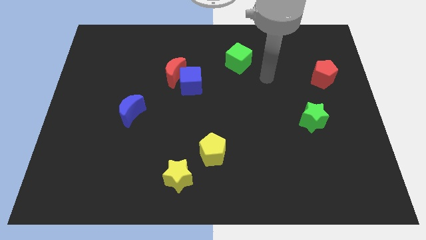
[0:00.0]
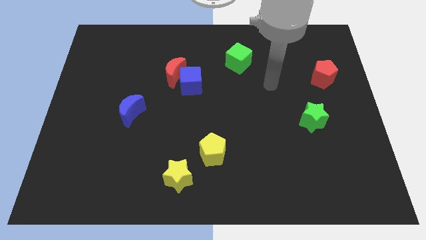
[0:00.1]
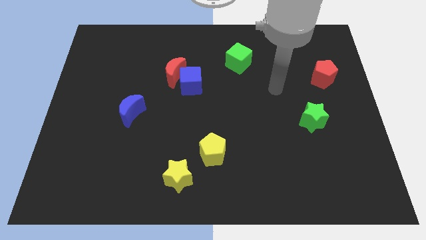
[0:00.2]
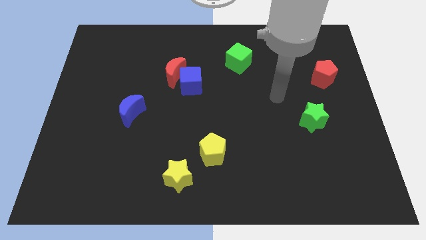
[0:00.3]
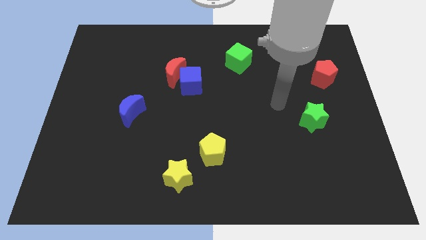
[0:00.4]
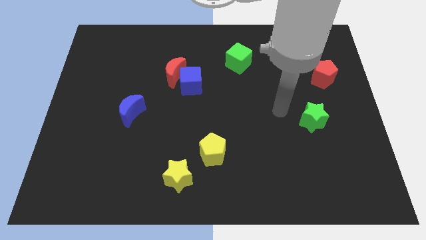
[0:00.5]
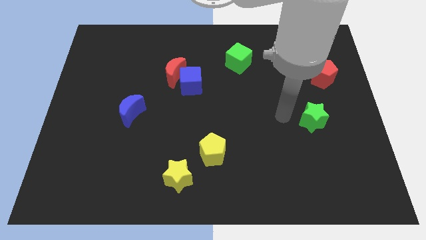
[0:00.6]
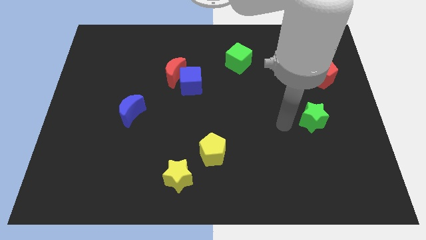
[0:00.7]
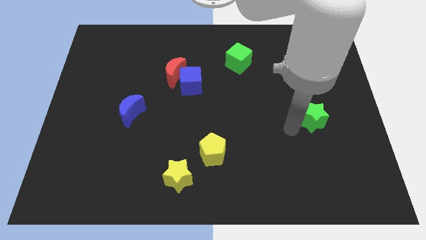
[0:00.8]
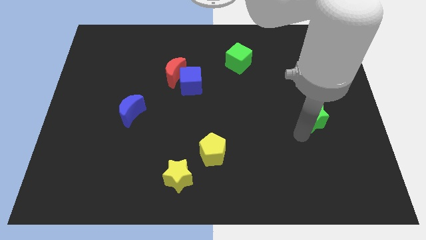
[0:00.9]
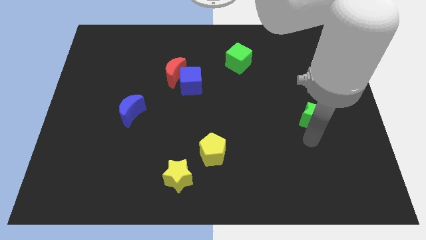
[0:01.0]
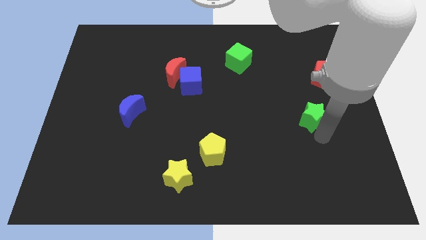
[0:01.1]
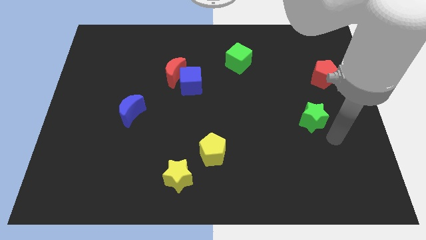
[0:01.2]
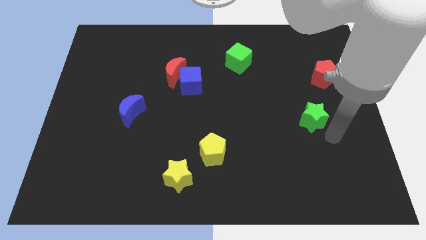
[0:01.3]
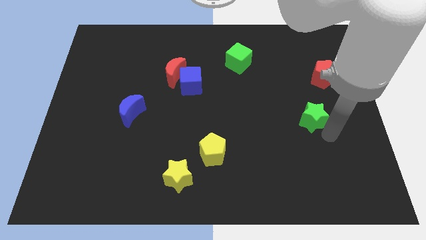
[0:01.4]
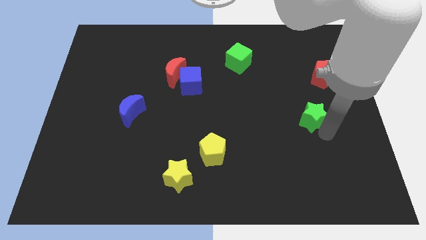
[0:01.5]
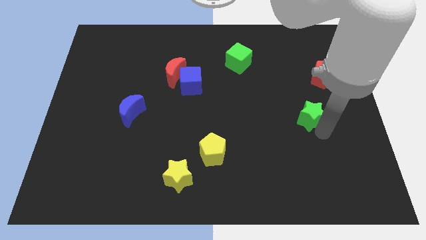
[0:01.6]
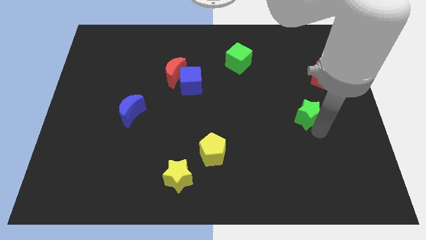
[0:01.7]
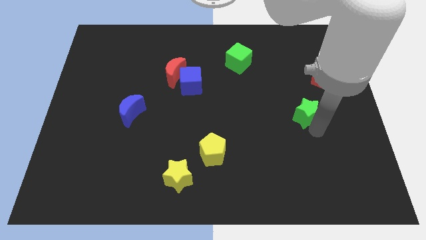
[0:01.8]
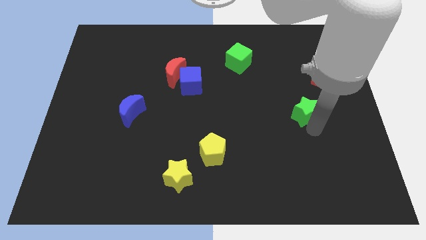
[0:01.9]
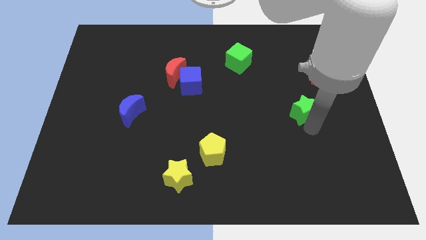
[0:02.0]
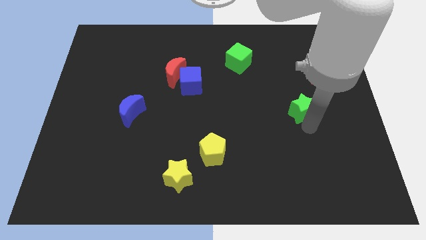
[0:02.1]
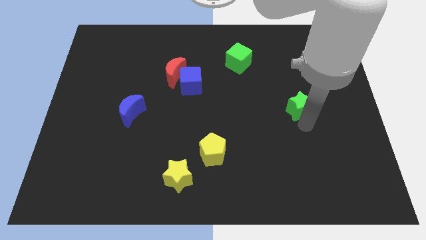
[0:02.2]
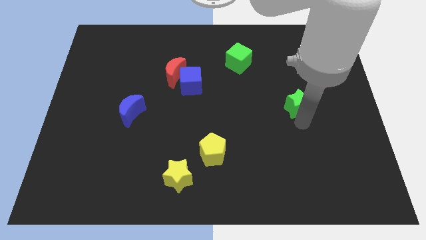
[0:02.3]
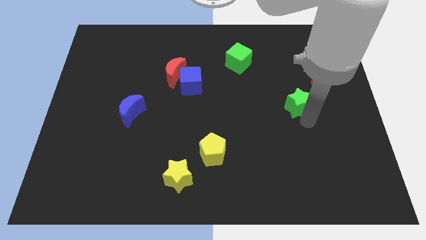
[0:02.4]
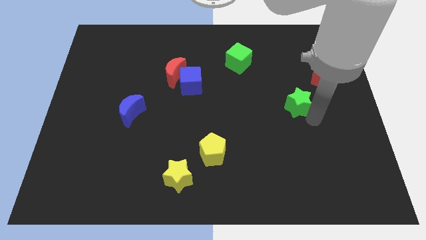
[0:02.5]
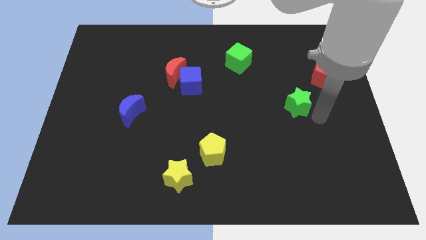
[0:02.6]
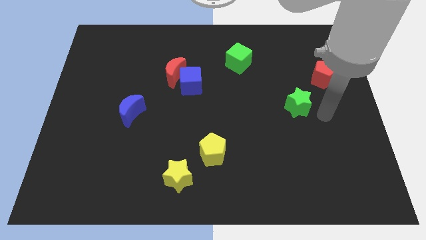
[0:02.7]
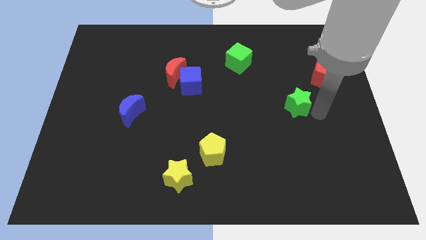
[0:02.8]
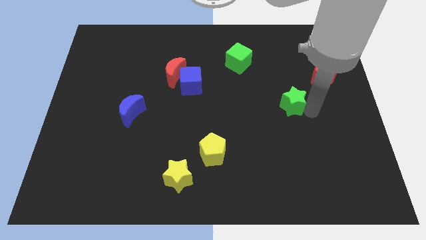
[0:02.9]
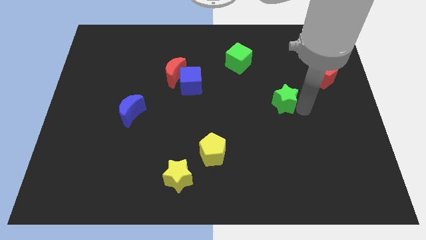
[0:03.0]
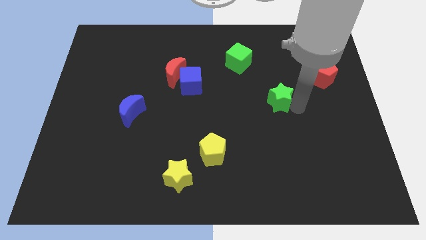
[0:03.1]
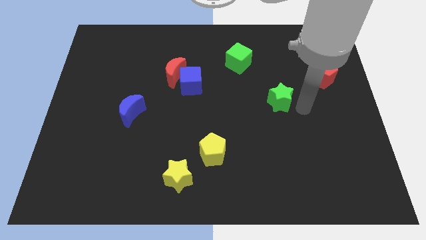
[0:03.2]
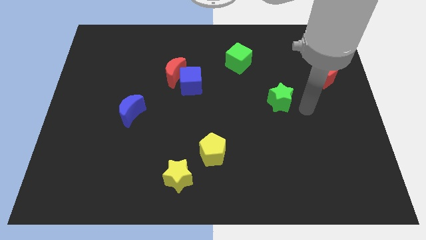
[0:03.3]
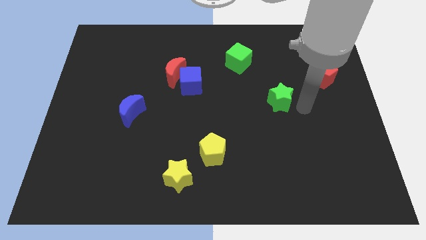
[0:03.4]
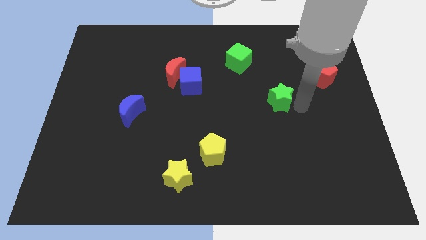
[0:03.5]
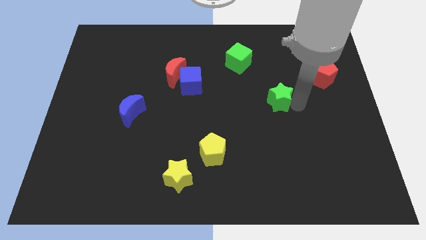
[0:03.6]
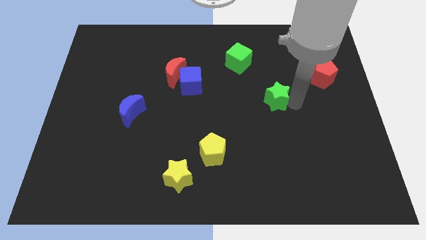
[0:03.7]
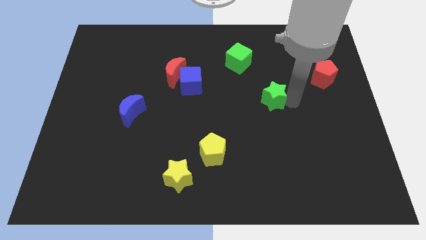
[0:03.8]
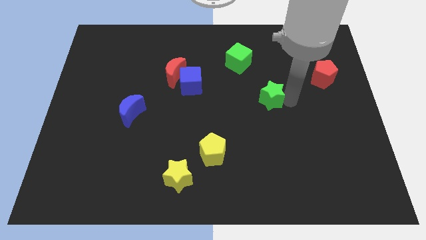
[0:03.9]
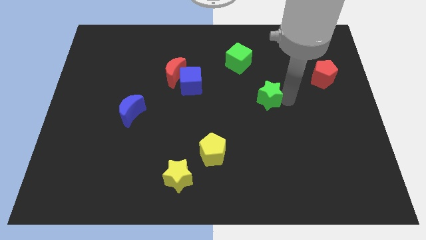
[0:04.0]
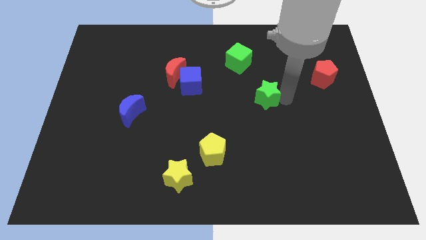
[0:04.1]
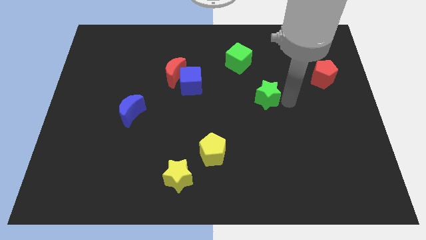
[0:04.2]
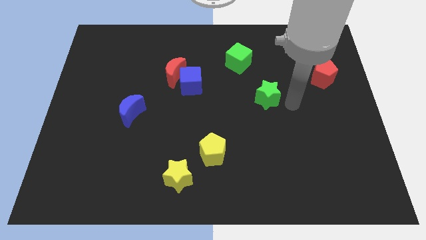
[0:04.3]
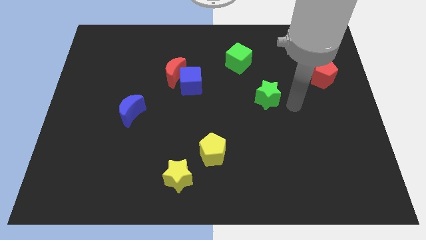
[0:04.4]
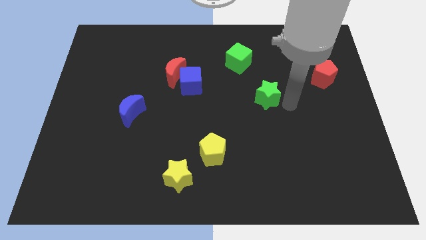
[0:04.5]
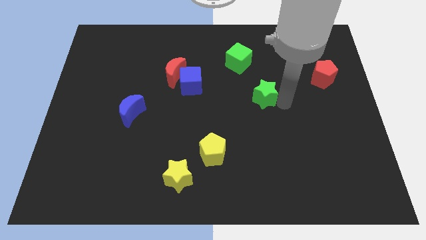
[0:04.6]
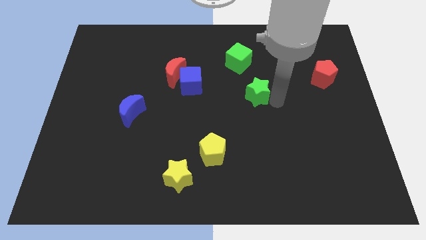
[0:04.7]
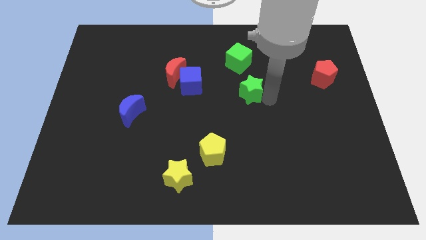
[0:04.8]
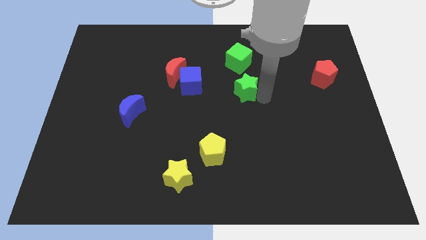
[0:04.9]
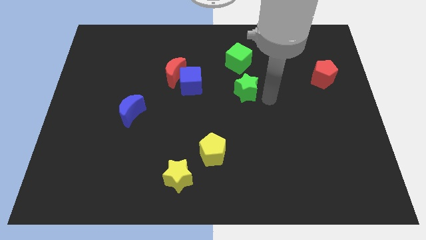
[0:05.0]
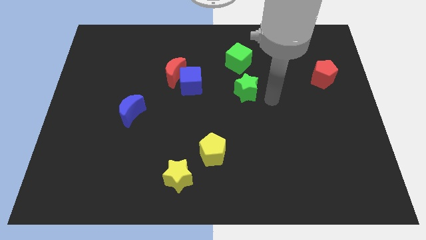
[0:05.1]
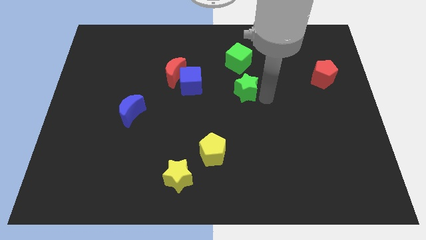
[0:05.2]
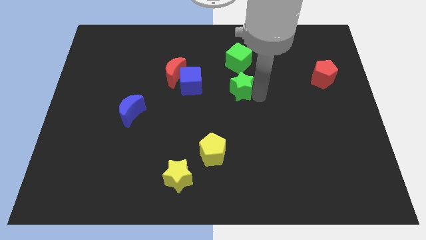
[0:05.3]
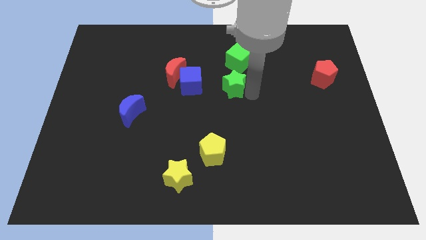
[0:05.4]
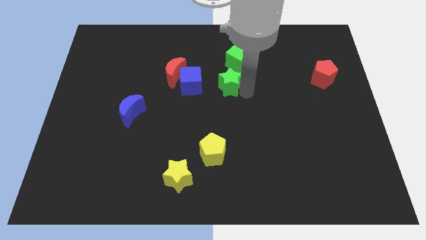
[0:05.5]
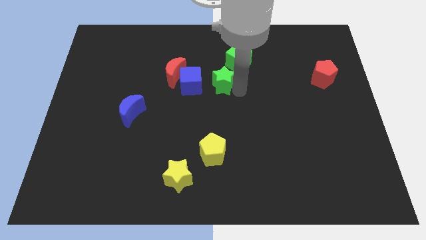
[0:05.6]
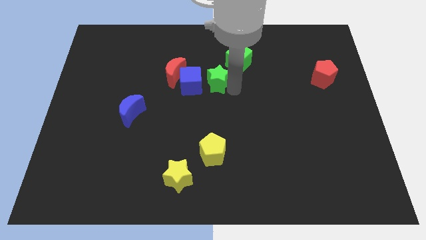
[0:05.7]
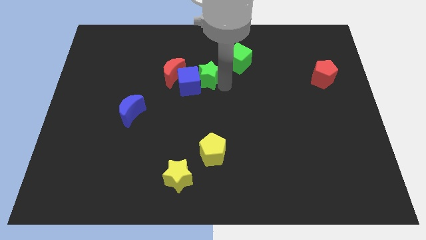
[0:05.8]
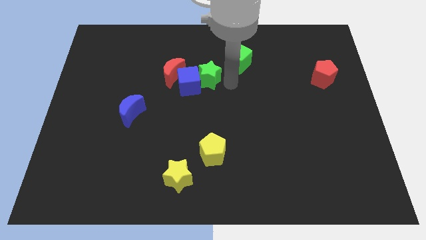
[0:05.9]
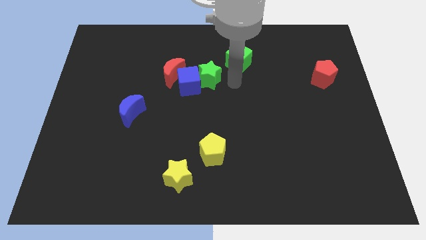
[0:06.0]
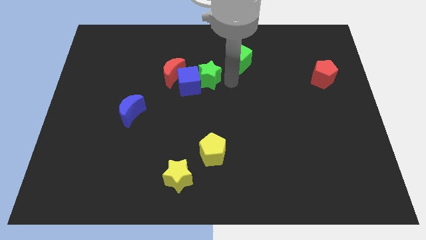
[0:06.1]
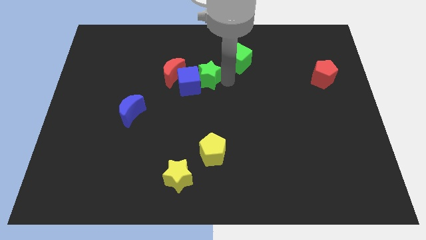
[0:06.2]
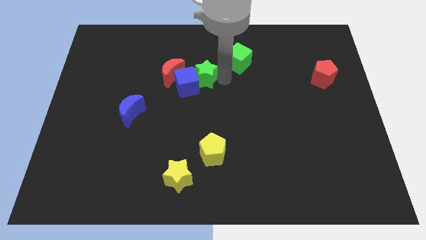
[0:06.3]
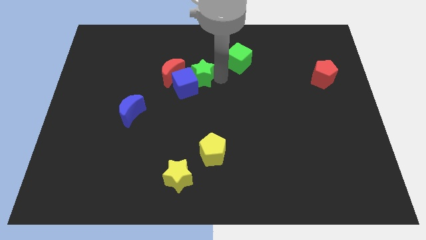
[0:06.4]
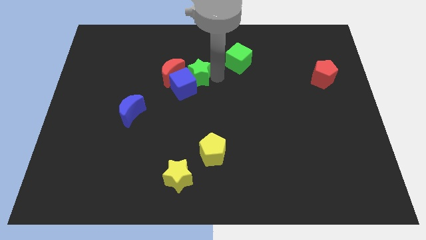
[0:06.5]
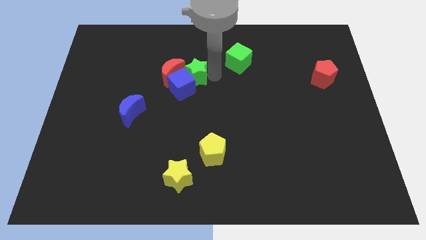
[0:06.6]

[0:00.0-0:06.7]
push the green star to the red moon

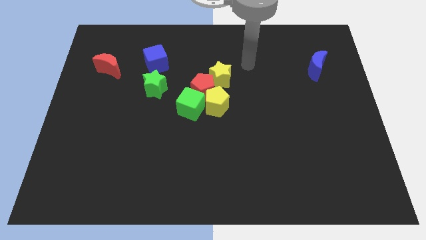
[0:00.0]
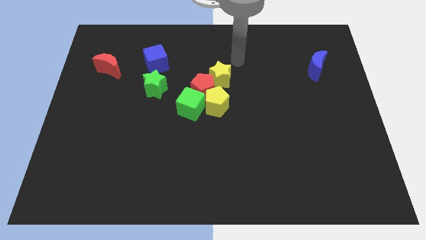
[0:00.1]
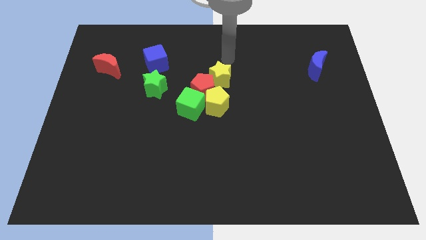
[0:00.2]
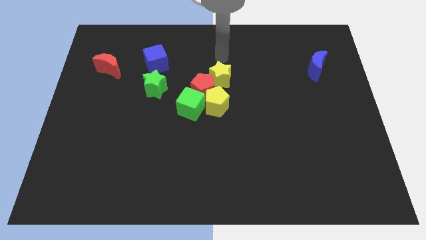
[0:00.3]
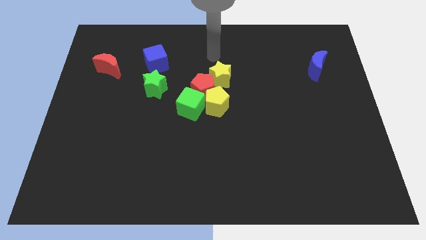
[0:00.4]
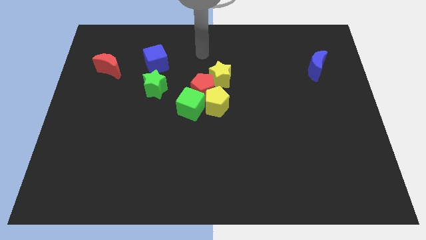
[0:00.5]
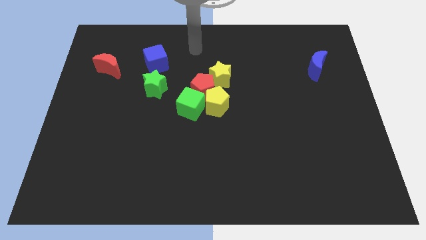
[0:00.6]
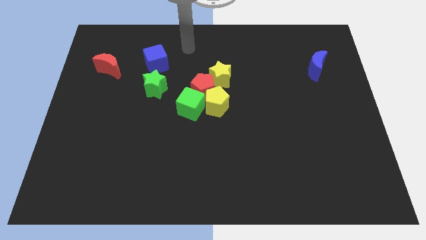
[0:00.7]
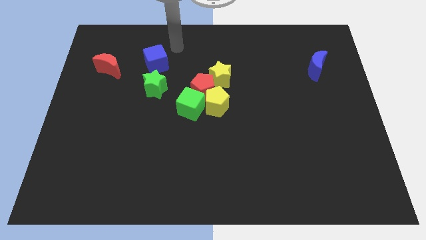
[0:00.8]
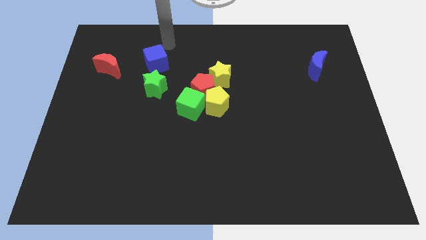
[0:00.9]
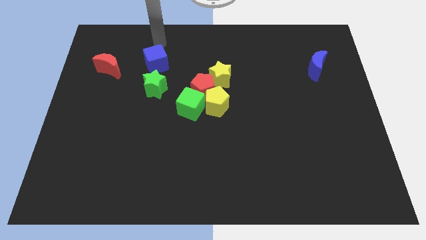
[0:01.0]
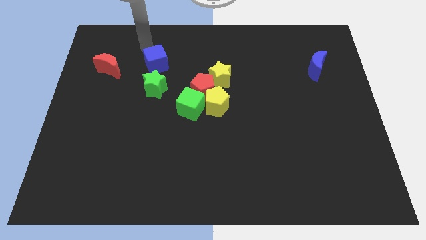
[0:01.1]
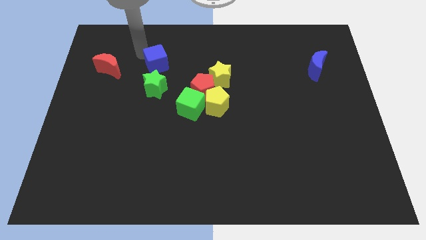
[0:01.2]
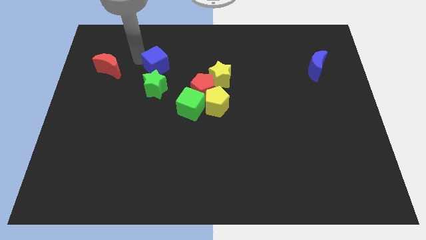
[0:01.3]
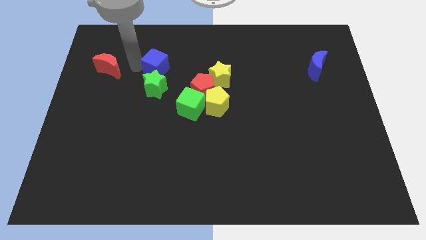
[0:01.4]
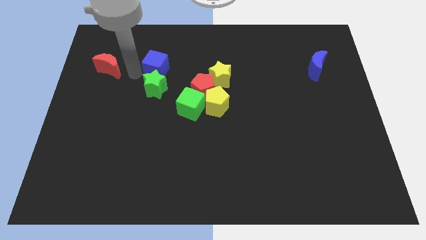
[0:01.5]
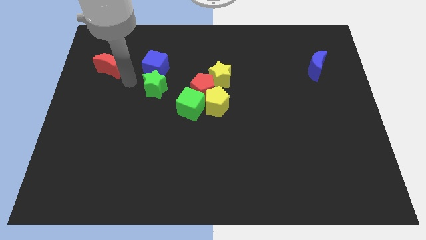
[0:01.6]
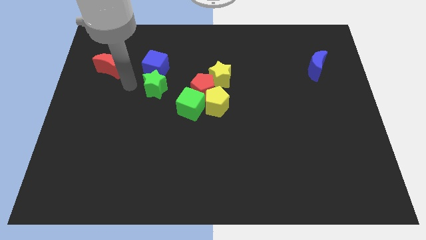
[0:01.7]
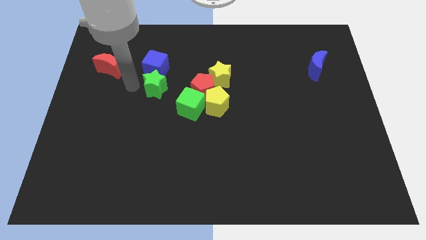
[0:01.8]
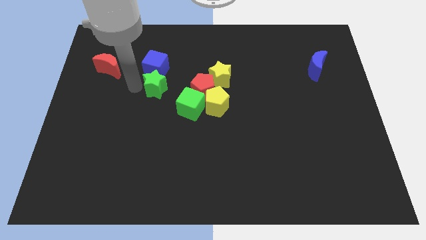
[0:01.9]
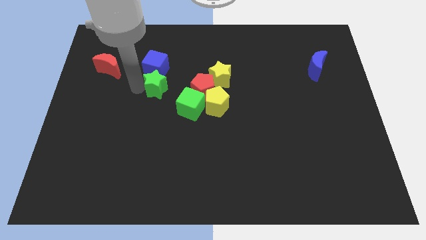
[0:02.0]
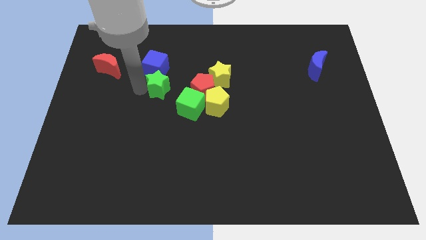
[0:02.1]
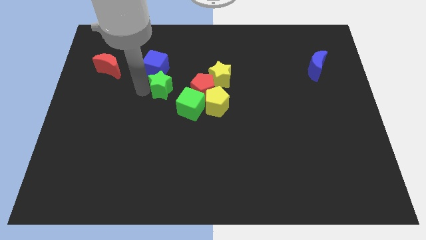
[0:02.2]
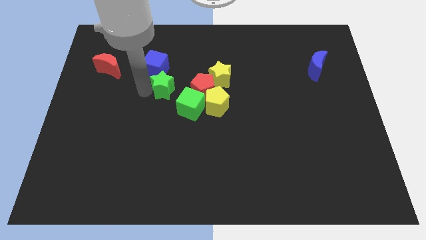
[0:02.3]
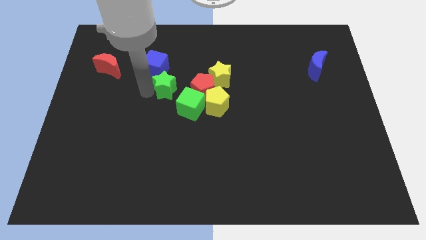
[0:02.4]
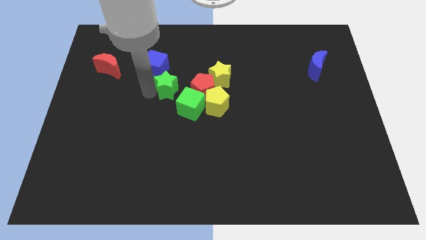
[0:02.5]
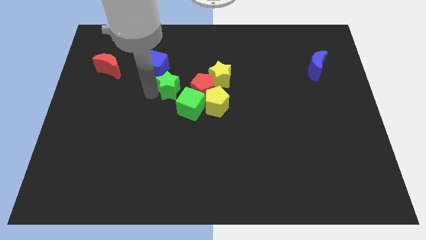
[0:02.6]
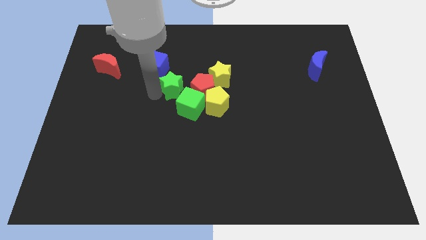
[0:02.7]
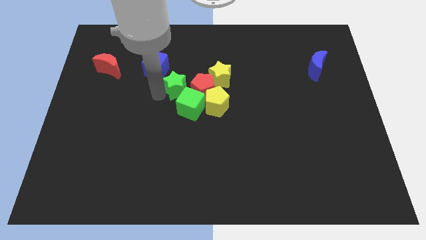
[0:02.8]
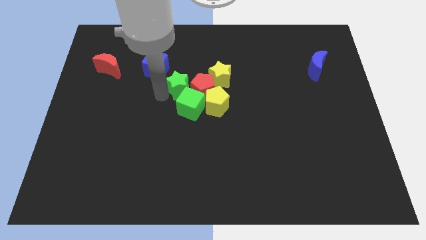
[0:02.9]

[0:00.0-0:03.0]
put the green star towards the red pentagon
